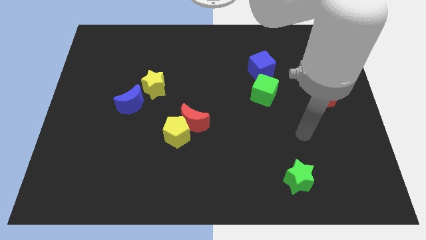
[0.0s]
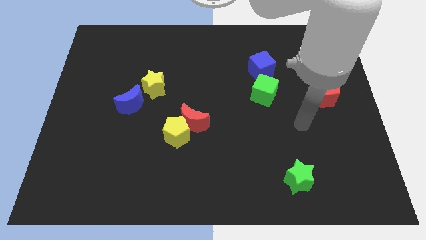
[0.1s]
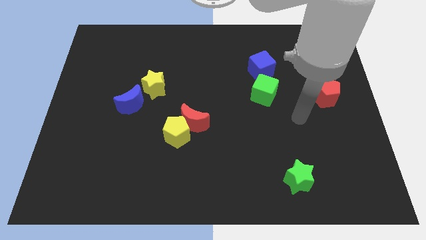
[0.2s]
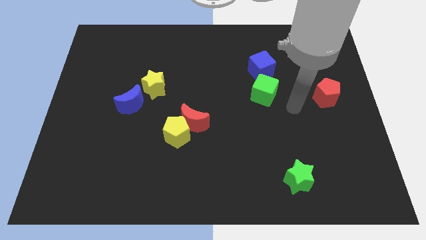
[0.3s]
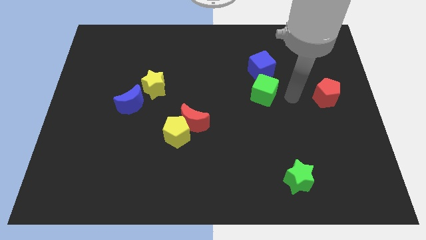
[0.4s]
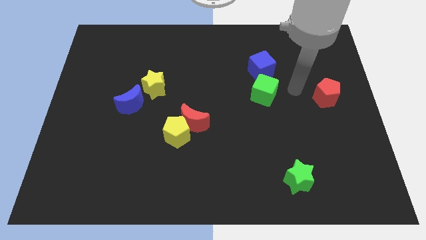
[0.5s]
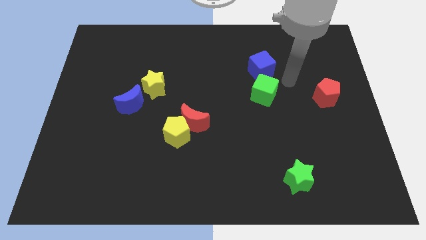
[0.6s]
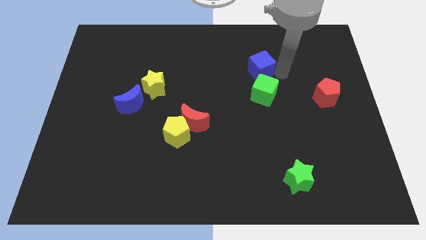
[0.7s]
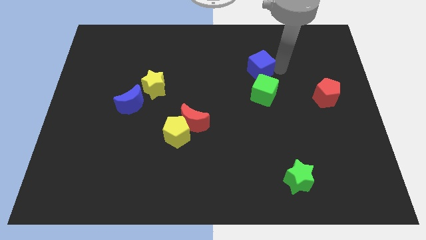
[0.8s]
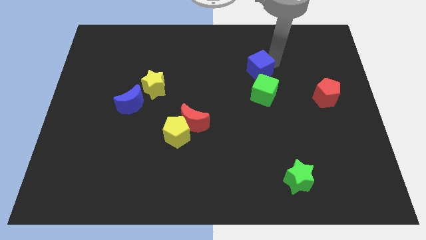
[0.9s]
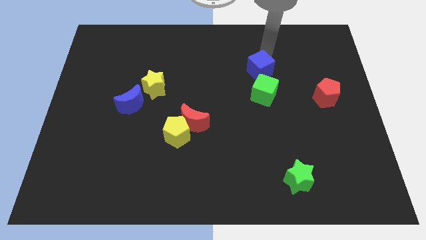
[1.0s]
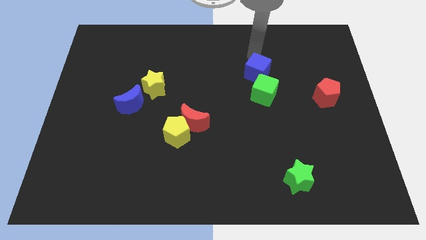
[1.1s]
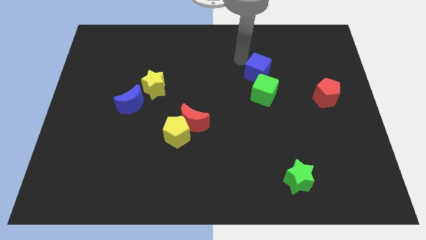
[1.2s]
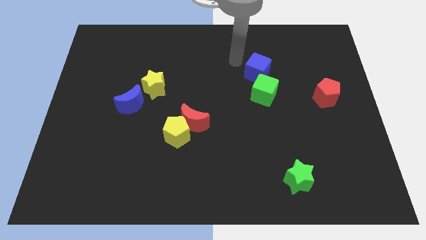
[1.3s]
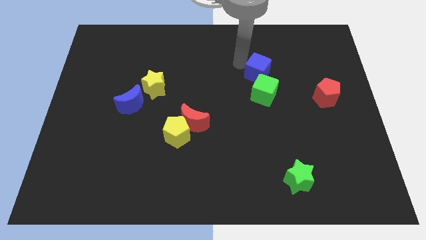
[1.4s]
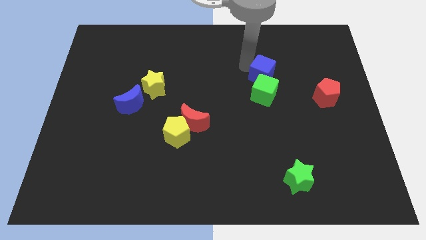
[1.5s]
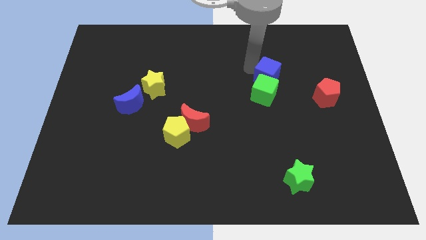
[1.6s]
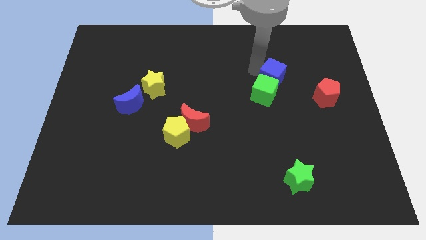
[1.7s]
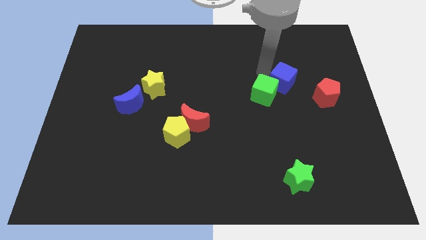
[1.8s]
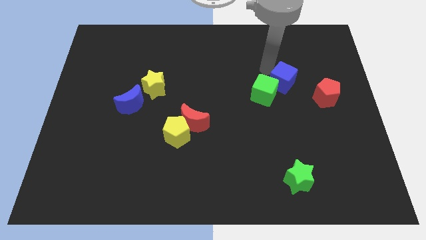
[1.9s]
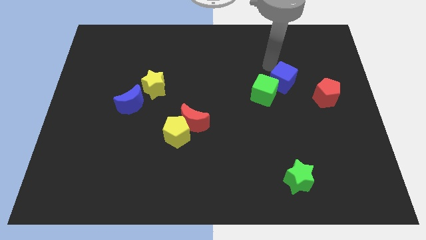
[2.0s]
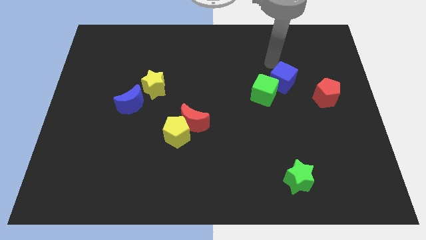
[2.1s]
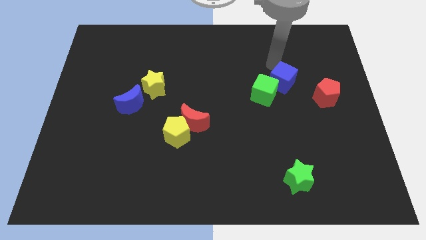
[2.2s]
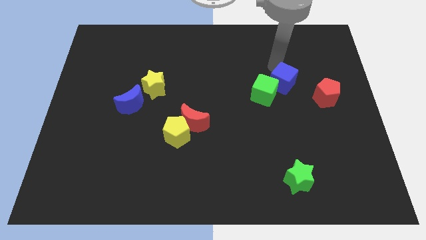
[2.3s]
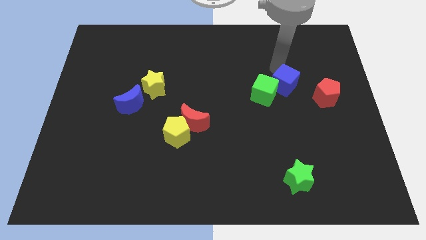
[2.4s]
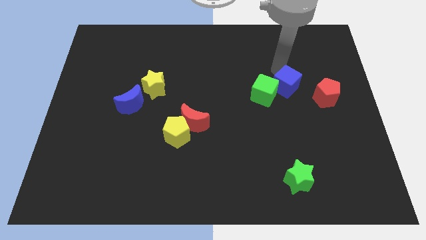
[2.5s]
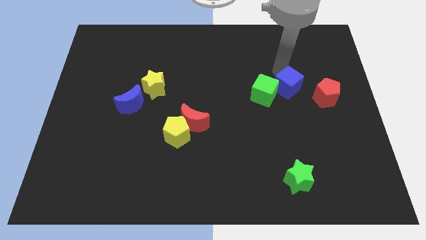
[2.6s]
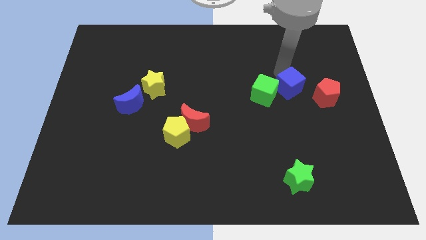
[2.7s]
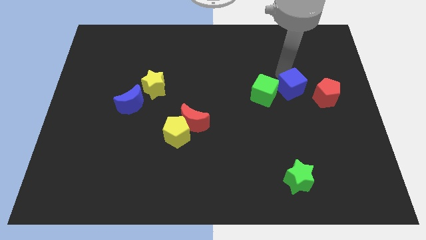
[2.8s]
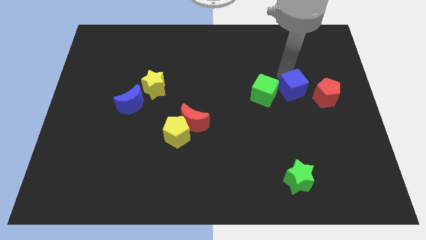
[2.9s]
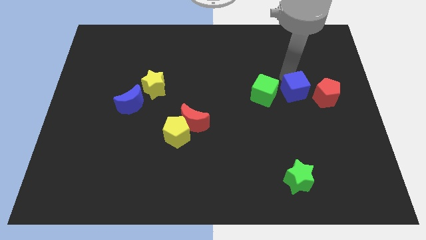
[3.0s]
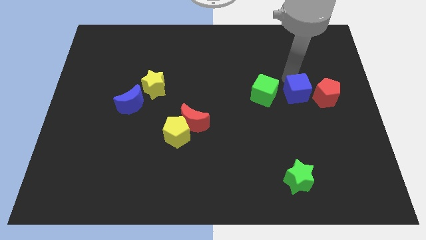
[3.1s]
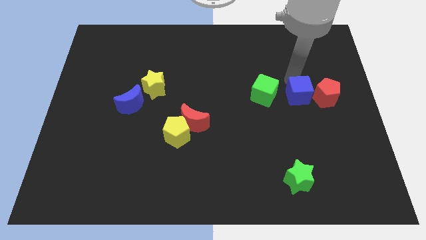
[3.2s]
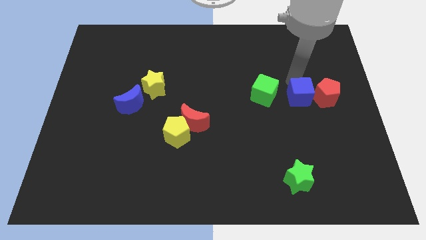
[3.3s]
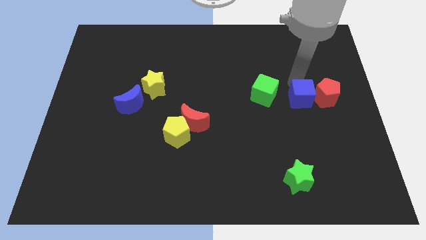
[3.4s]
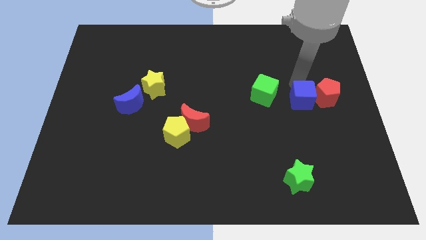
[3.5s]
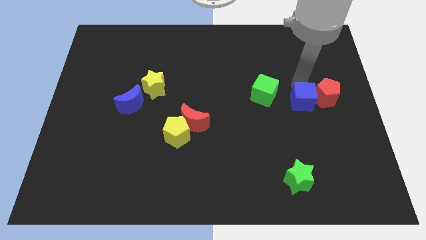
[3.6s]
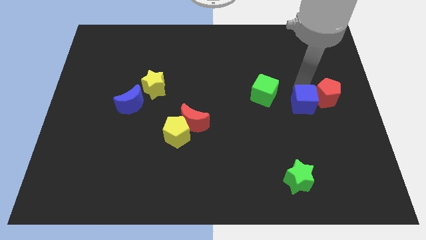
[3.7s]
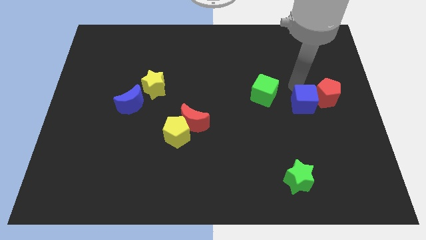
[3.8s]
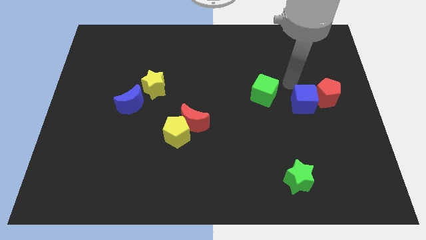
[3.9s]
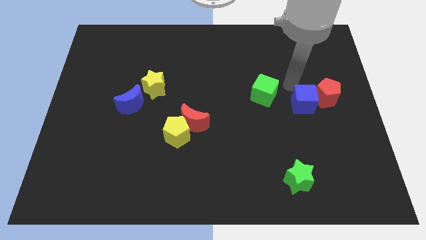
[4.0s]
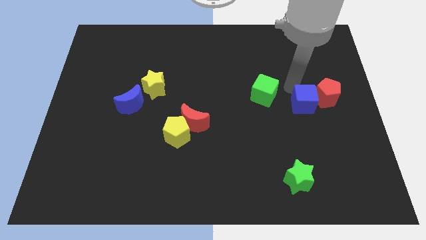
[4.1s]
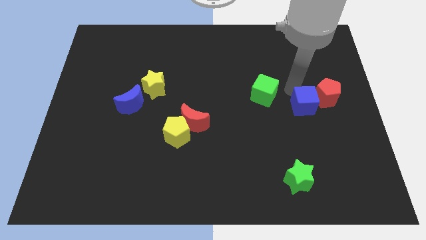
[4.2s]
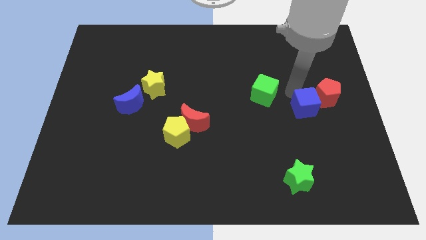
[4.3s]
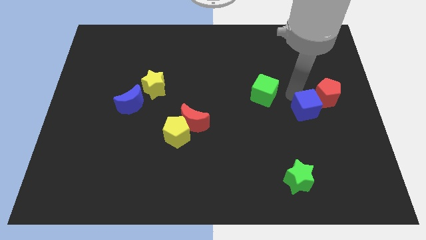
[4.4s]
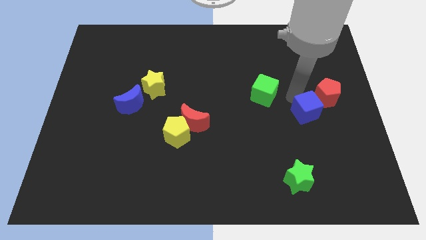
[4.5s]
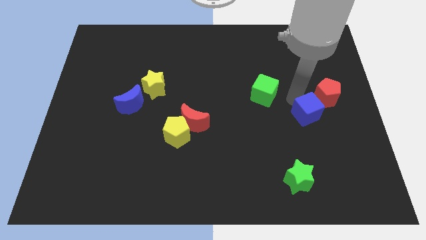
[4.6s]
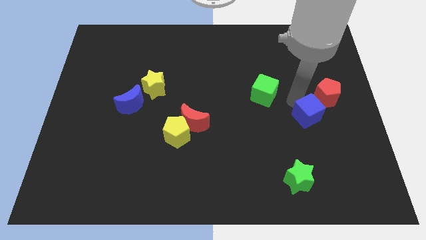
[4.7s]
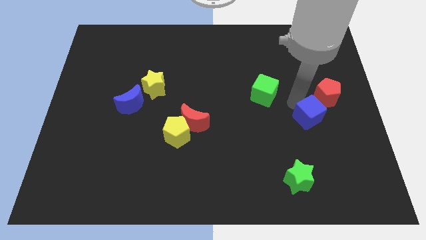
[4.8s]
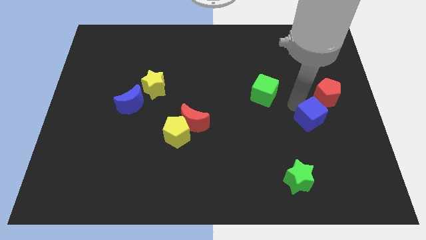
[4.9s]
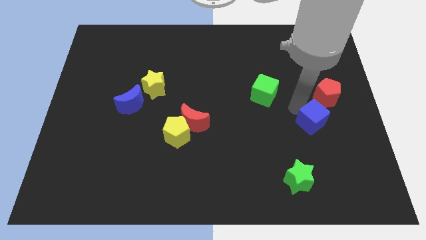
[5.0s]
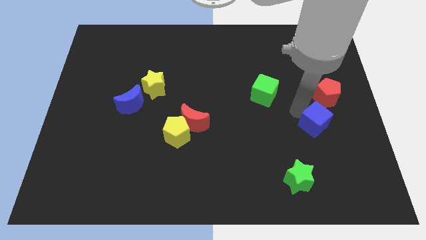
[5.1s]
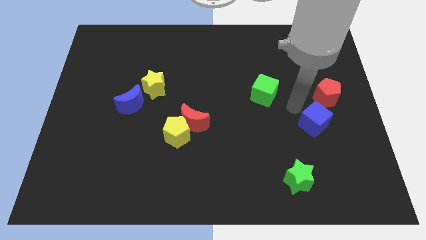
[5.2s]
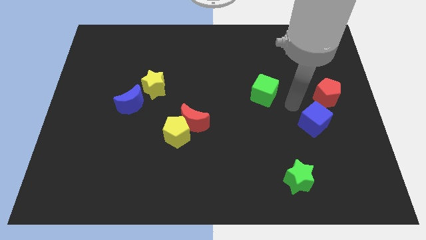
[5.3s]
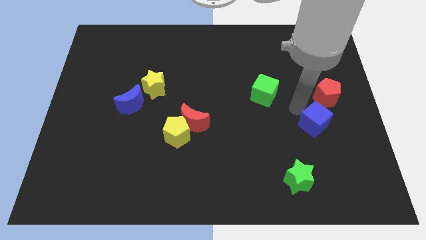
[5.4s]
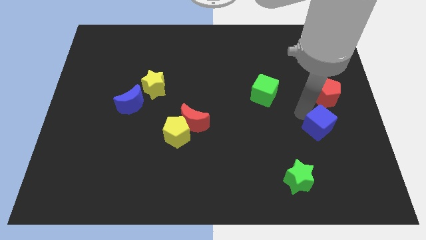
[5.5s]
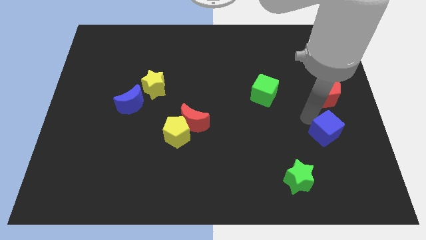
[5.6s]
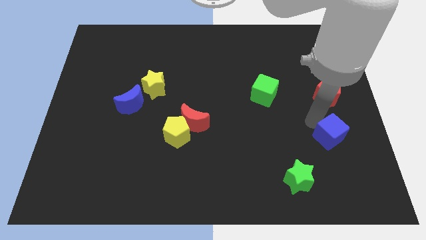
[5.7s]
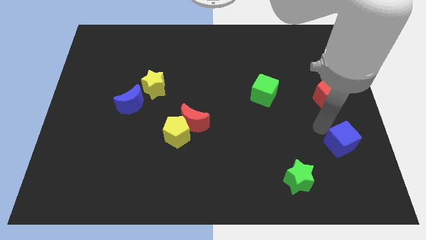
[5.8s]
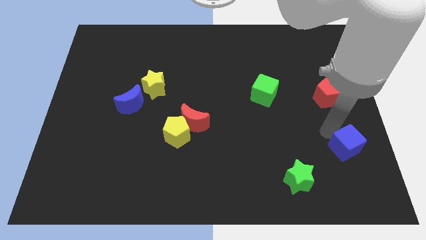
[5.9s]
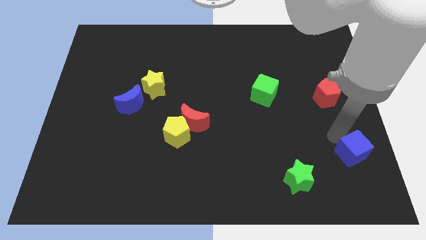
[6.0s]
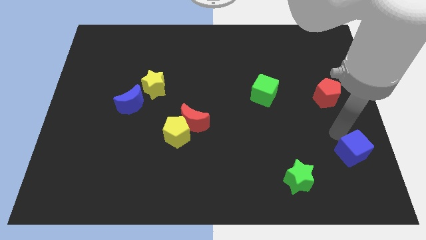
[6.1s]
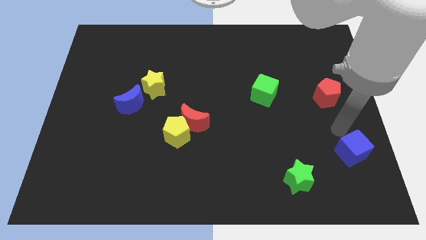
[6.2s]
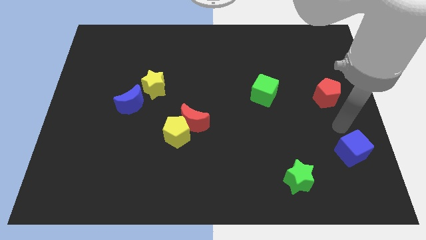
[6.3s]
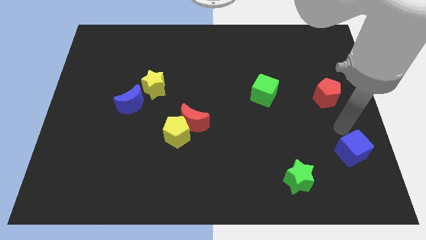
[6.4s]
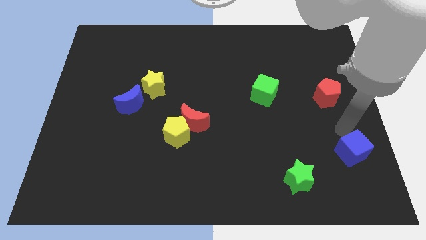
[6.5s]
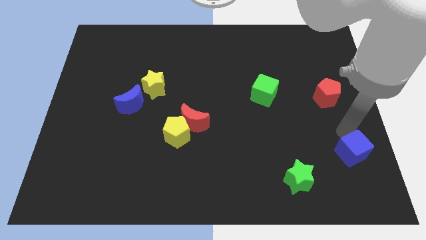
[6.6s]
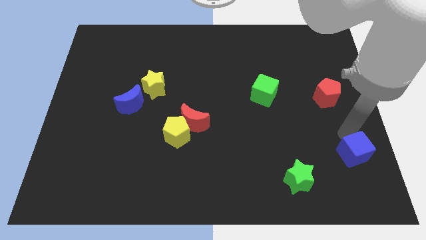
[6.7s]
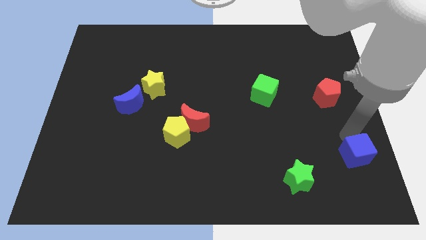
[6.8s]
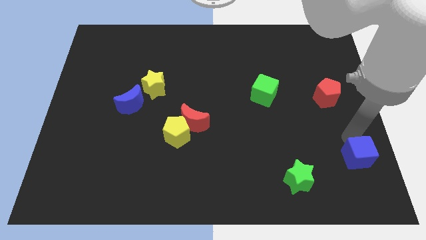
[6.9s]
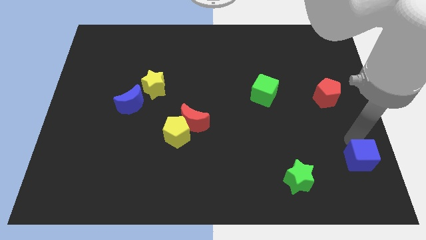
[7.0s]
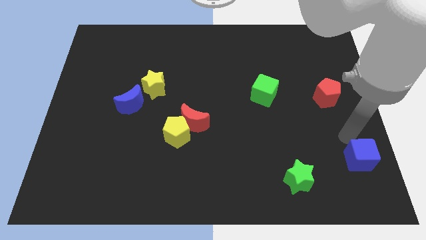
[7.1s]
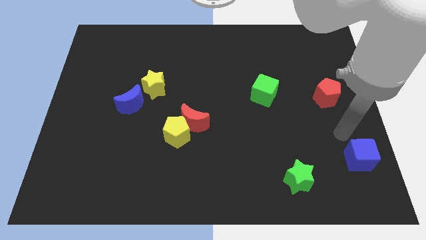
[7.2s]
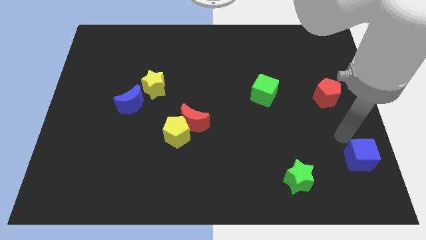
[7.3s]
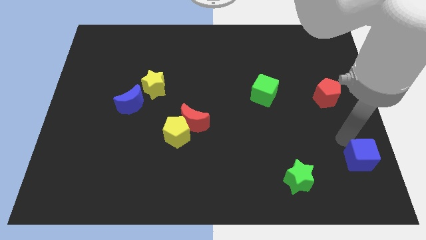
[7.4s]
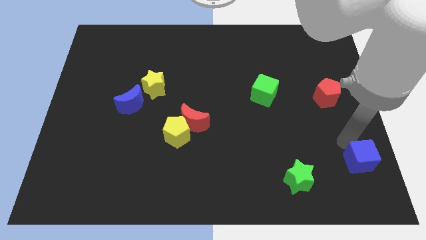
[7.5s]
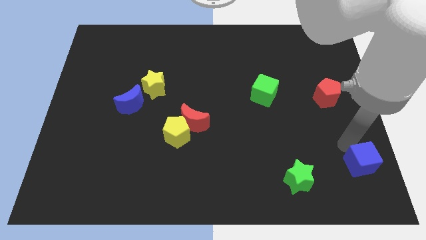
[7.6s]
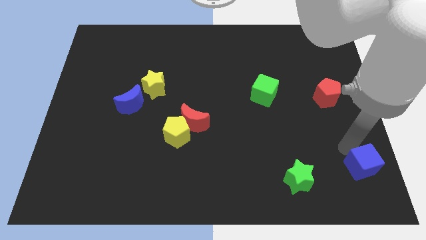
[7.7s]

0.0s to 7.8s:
move the blue cube to the bottom right of the board
